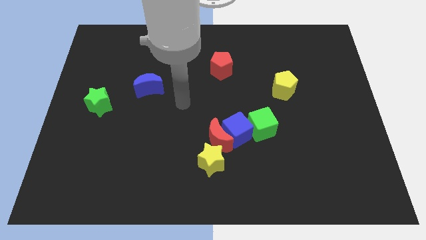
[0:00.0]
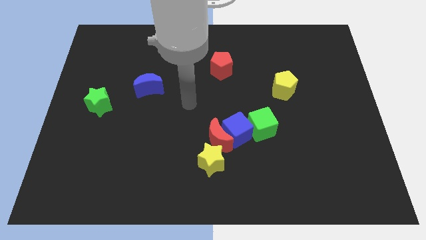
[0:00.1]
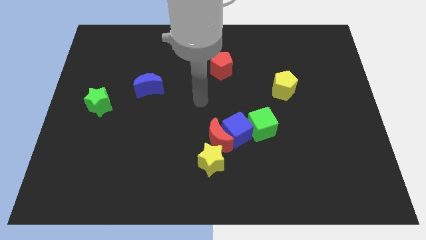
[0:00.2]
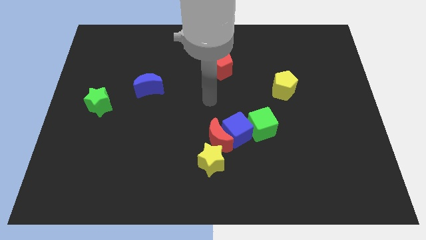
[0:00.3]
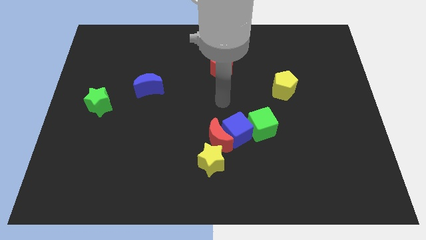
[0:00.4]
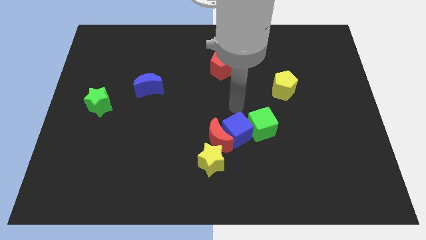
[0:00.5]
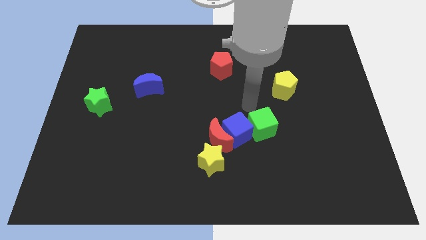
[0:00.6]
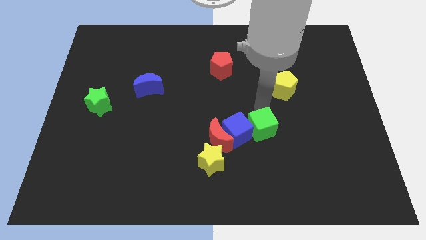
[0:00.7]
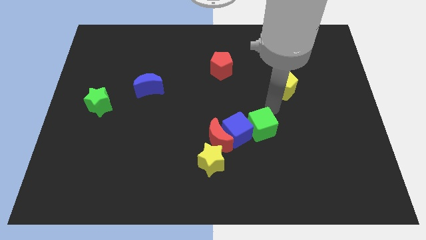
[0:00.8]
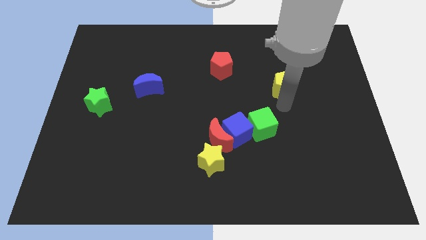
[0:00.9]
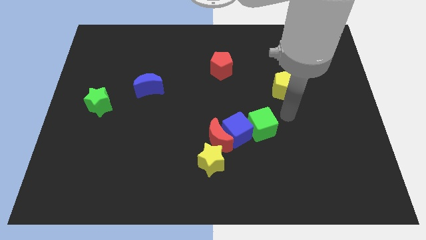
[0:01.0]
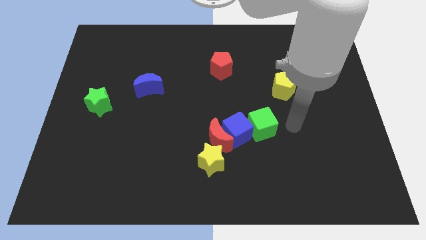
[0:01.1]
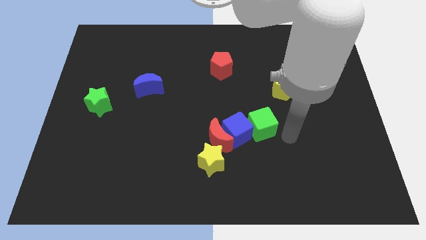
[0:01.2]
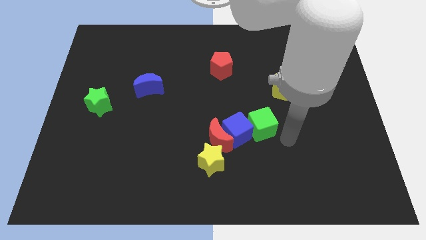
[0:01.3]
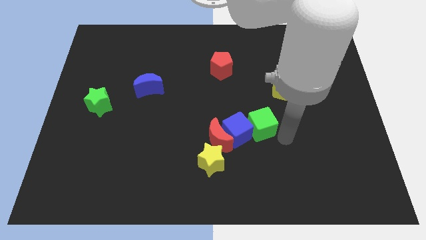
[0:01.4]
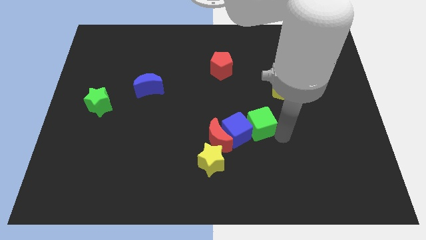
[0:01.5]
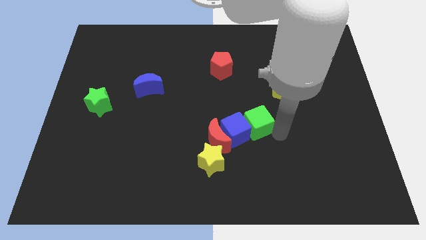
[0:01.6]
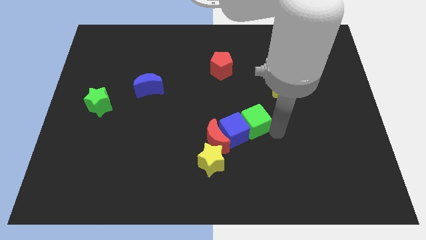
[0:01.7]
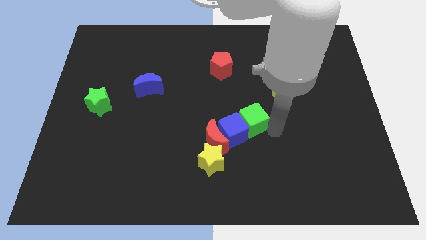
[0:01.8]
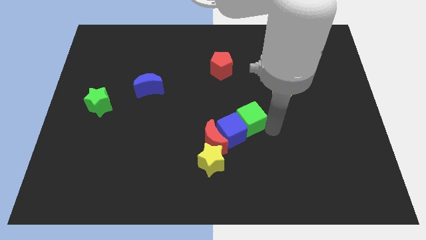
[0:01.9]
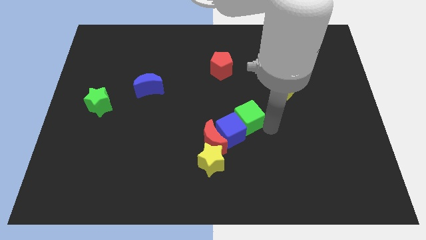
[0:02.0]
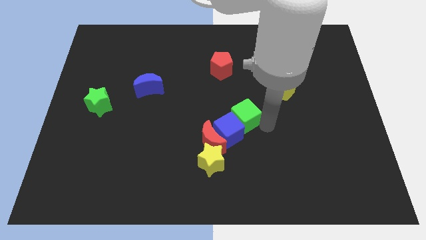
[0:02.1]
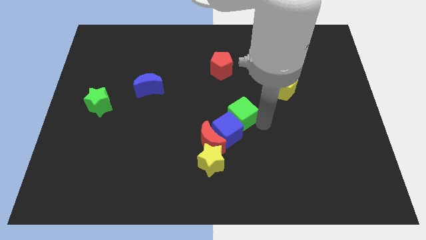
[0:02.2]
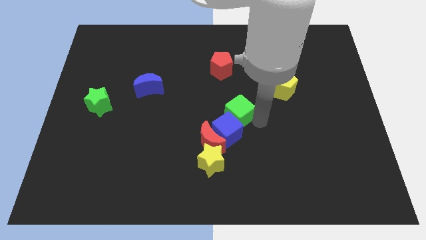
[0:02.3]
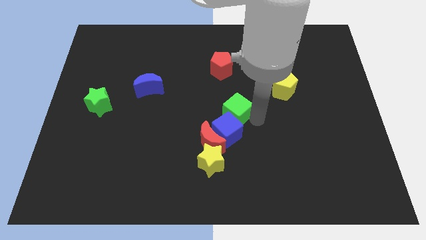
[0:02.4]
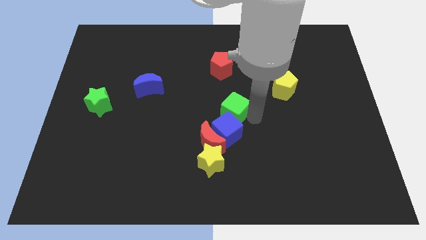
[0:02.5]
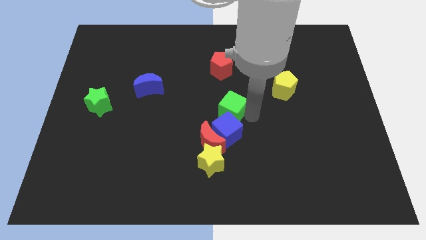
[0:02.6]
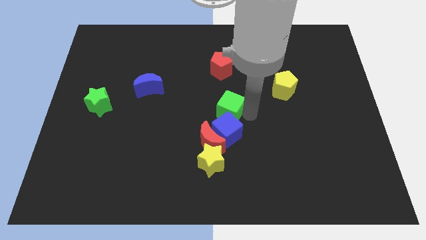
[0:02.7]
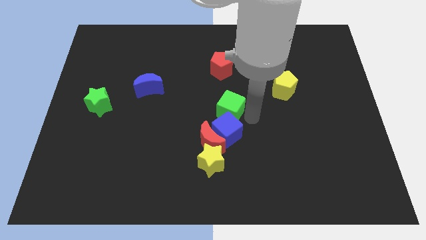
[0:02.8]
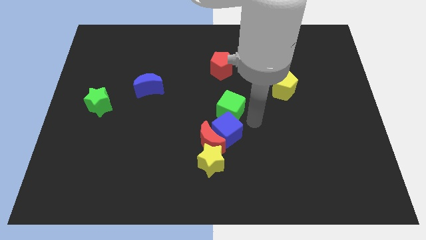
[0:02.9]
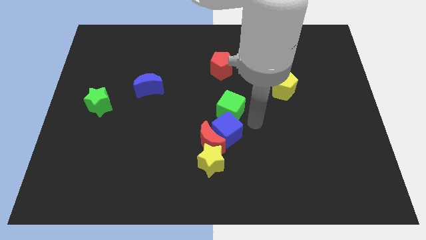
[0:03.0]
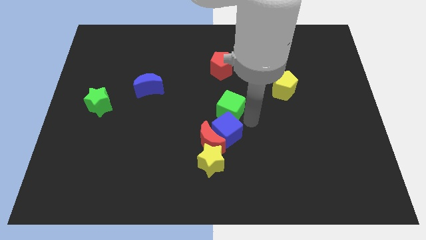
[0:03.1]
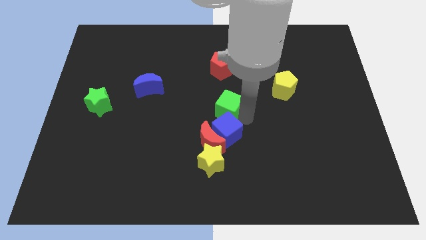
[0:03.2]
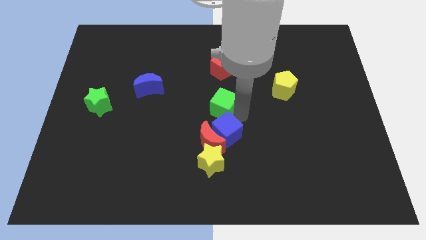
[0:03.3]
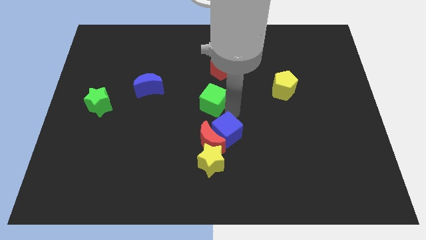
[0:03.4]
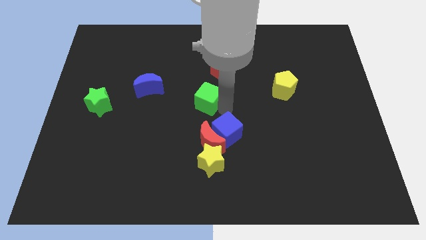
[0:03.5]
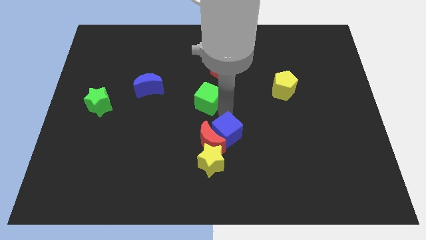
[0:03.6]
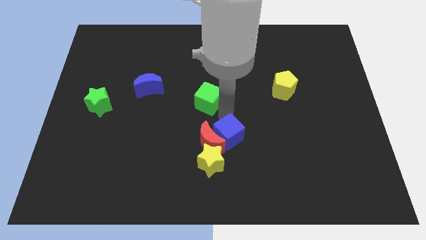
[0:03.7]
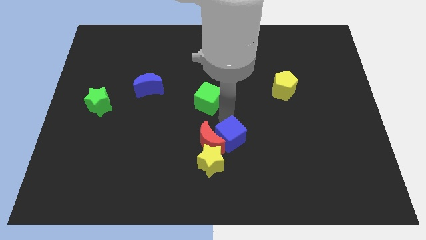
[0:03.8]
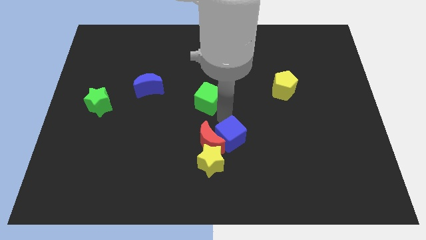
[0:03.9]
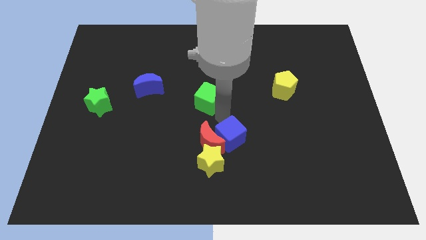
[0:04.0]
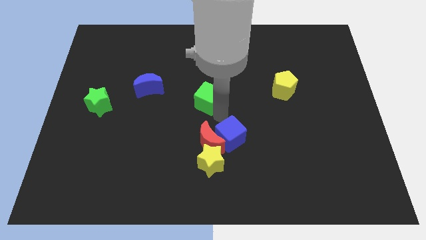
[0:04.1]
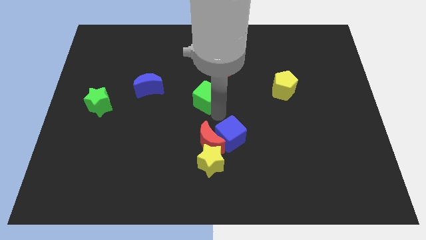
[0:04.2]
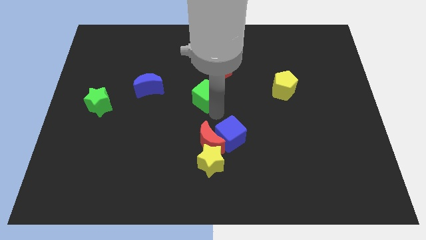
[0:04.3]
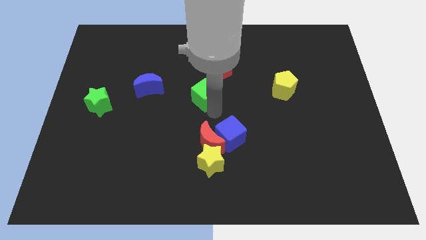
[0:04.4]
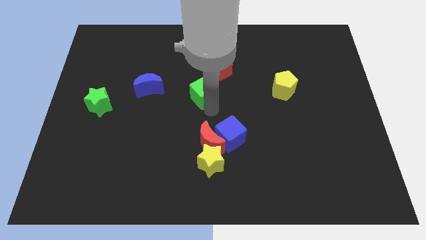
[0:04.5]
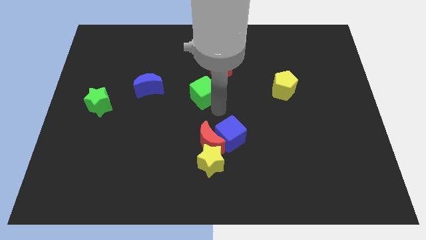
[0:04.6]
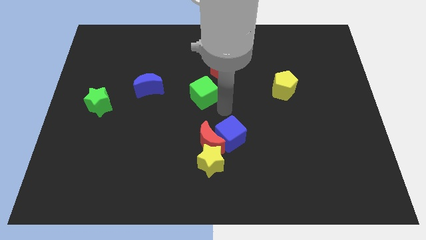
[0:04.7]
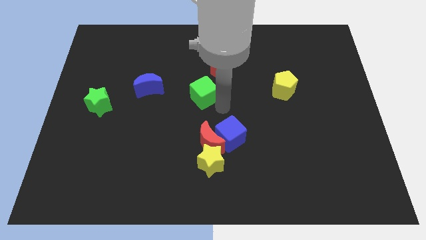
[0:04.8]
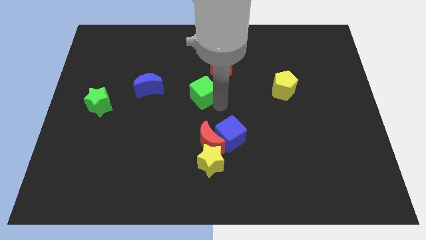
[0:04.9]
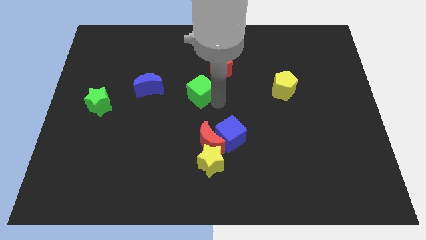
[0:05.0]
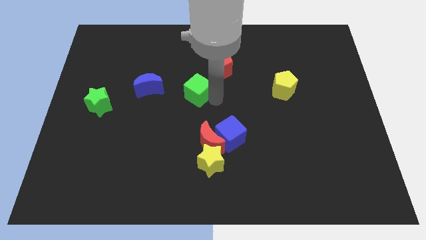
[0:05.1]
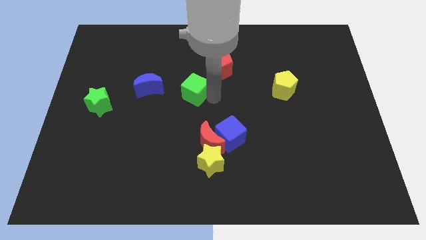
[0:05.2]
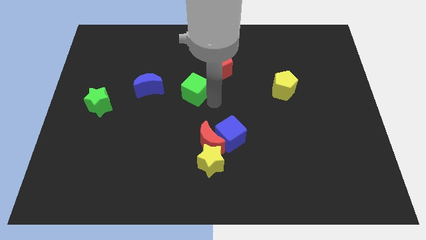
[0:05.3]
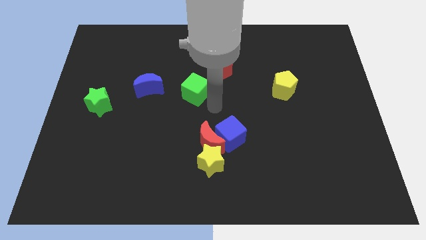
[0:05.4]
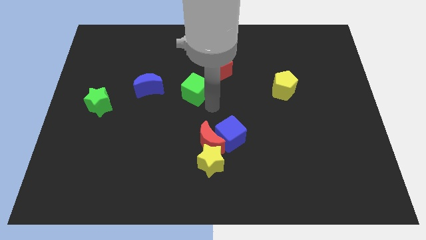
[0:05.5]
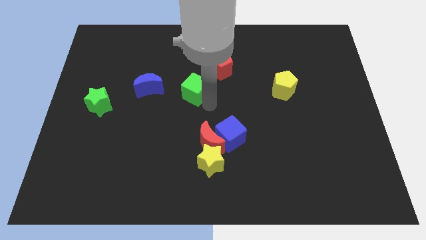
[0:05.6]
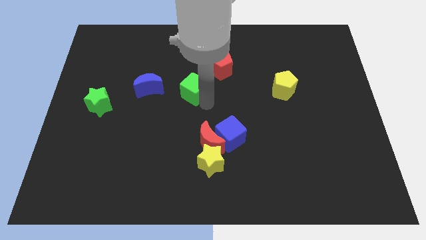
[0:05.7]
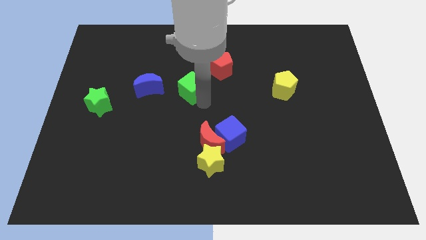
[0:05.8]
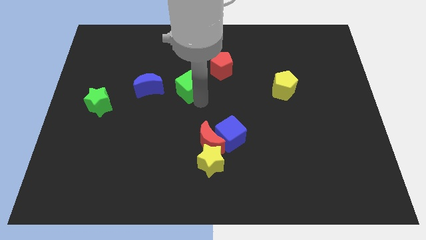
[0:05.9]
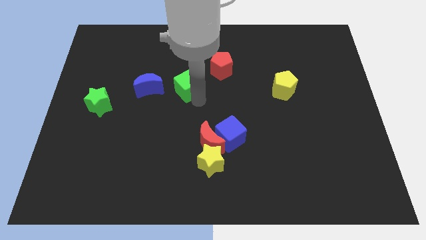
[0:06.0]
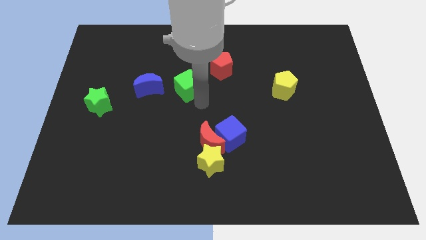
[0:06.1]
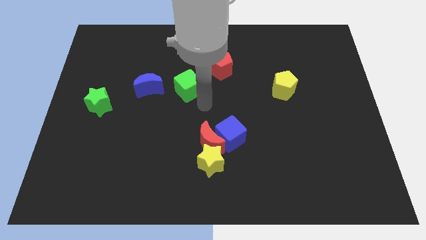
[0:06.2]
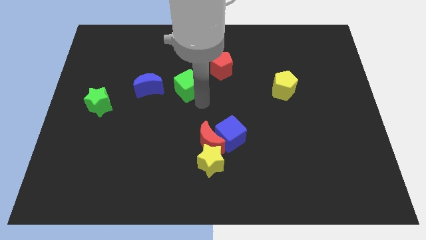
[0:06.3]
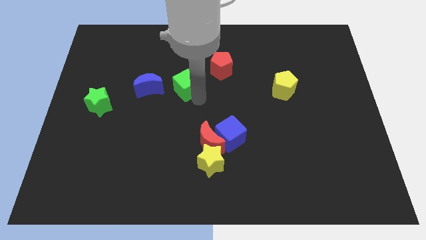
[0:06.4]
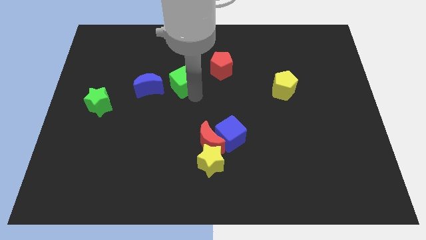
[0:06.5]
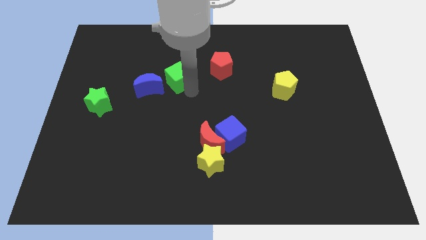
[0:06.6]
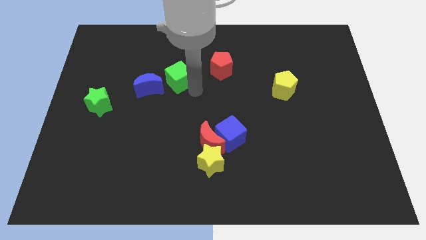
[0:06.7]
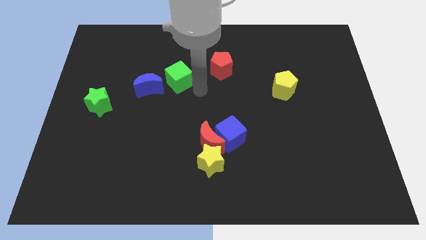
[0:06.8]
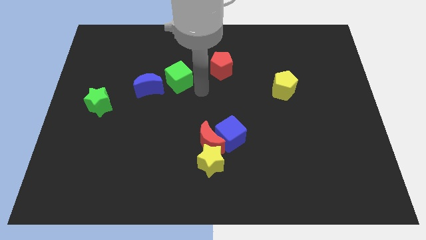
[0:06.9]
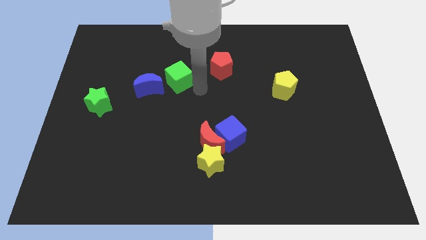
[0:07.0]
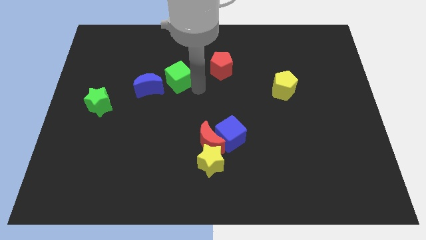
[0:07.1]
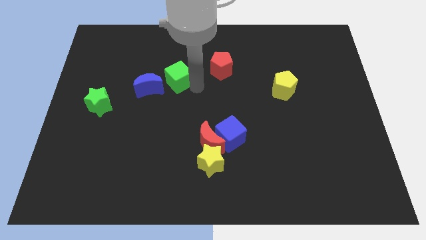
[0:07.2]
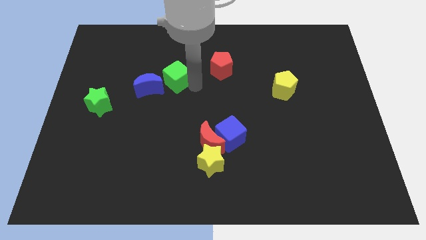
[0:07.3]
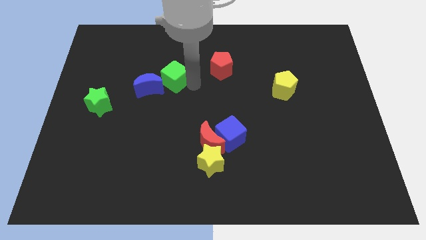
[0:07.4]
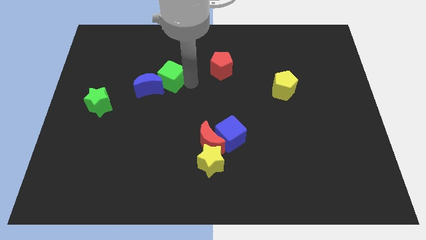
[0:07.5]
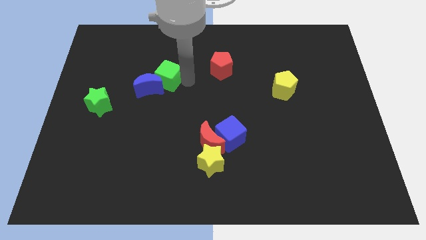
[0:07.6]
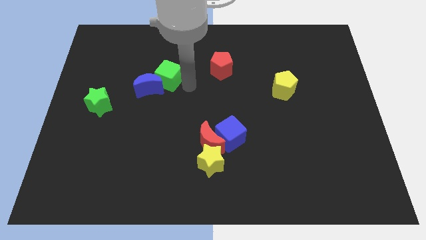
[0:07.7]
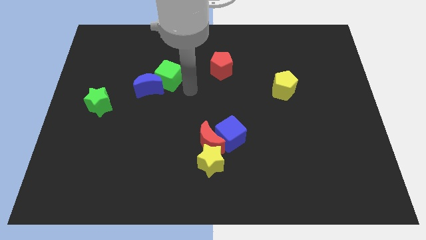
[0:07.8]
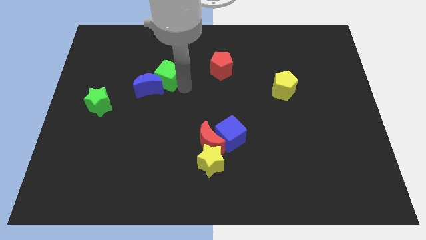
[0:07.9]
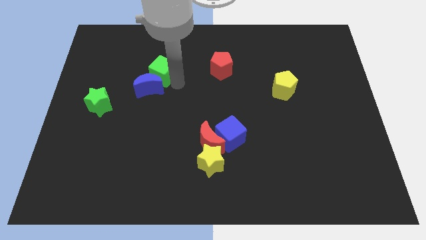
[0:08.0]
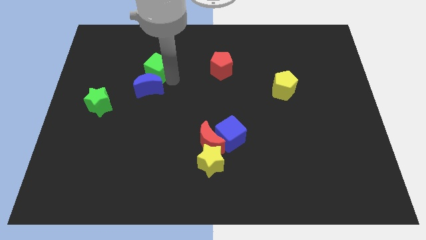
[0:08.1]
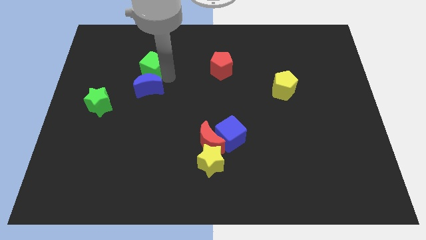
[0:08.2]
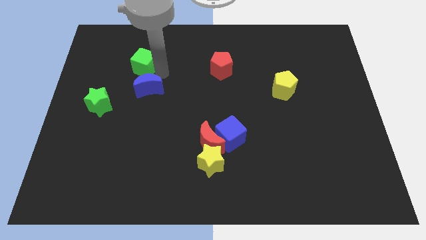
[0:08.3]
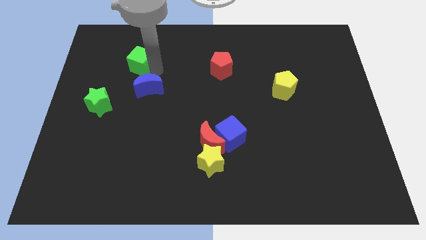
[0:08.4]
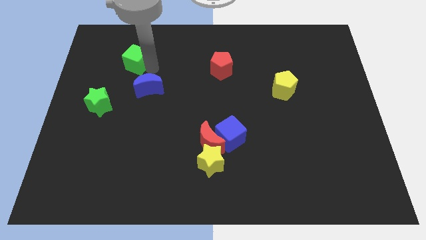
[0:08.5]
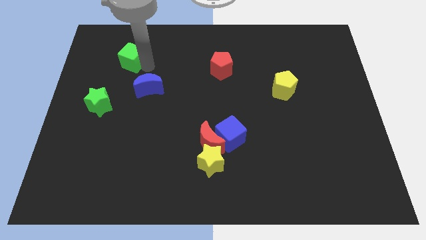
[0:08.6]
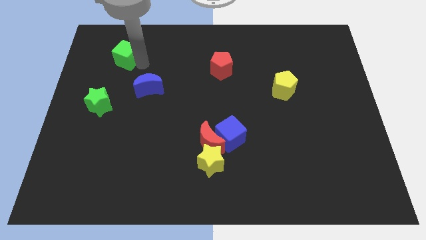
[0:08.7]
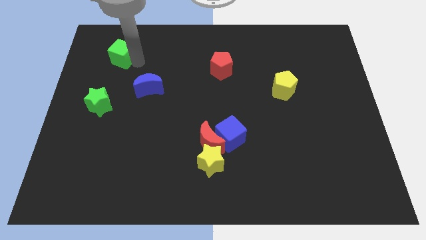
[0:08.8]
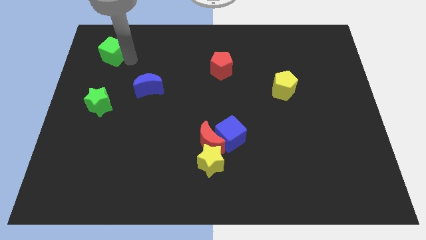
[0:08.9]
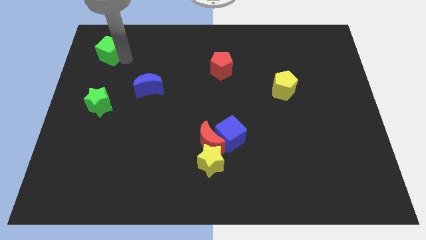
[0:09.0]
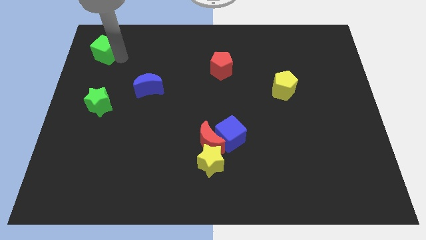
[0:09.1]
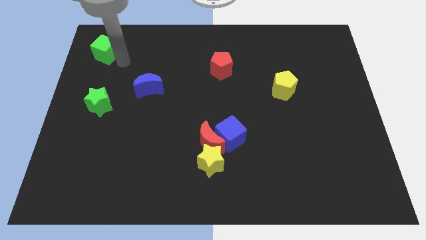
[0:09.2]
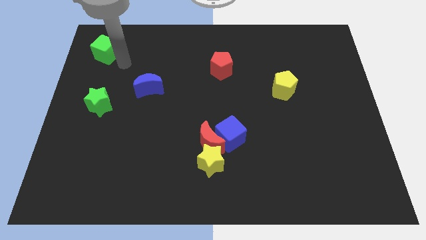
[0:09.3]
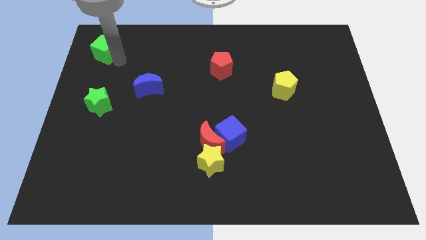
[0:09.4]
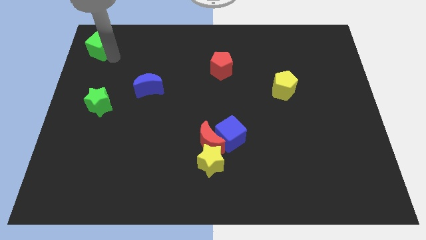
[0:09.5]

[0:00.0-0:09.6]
put the green cube to the top left
